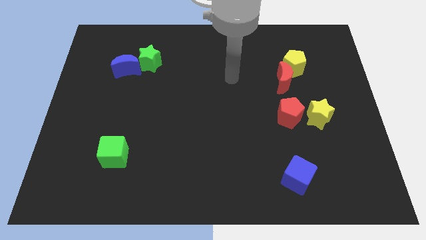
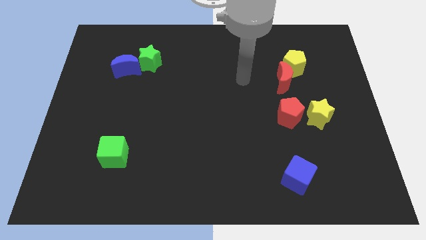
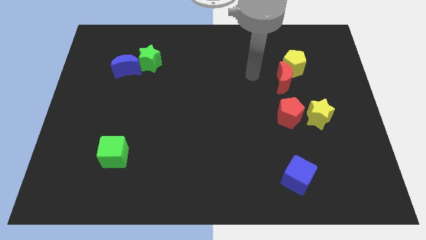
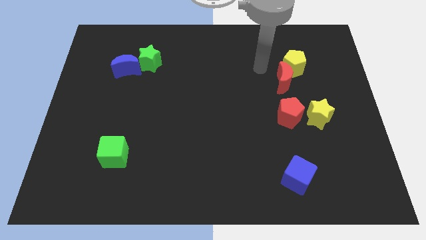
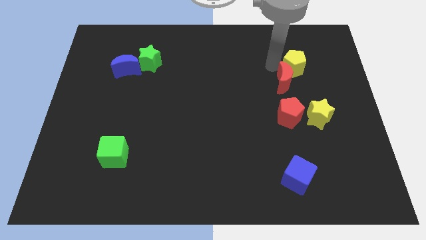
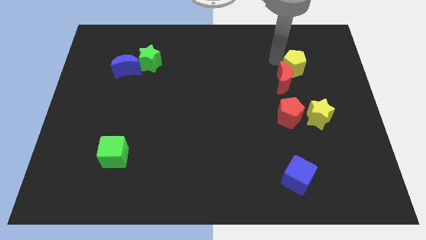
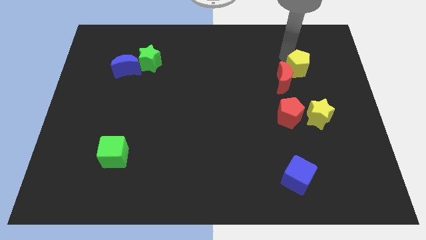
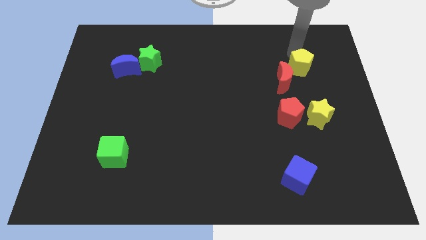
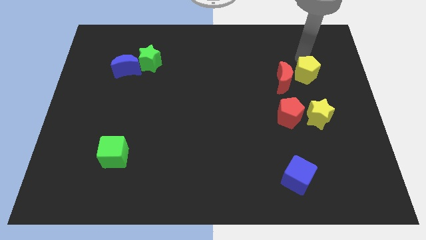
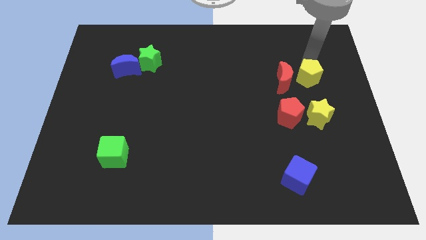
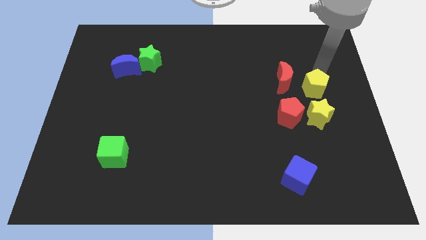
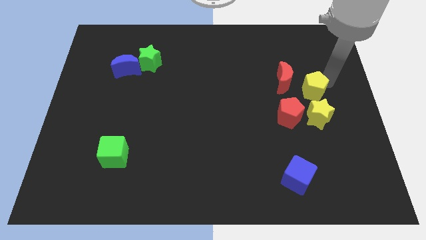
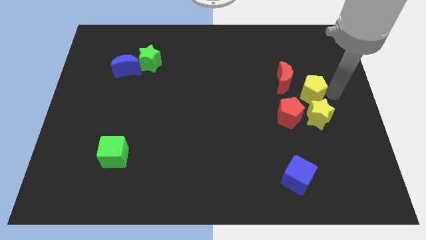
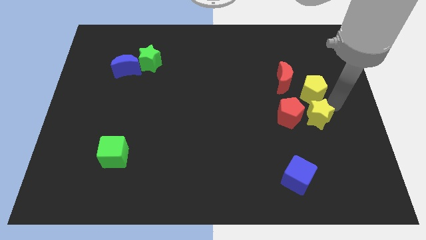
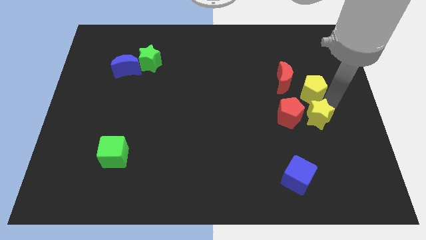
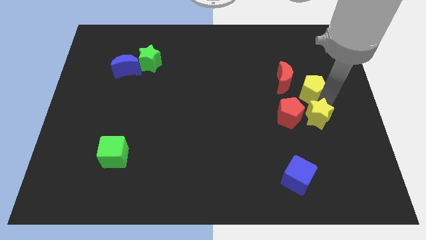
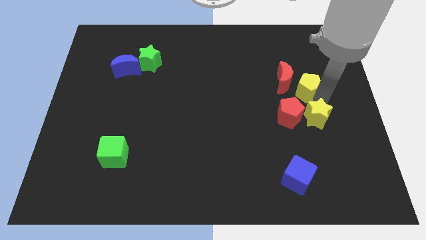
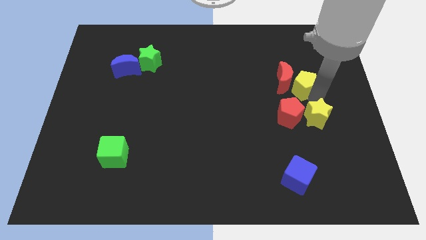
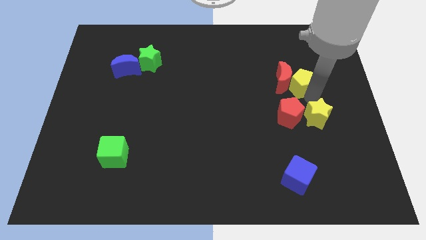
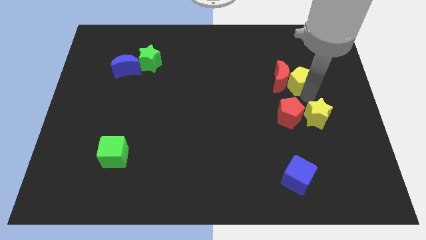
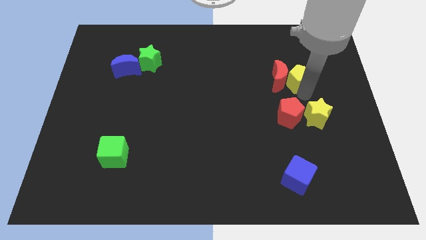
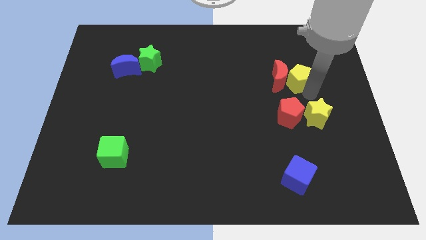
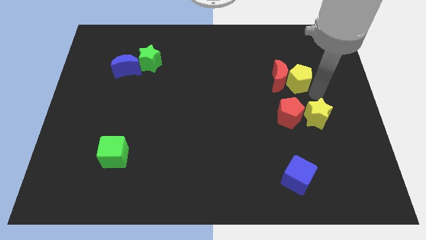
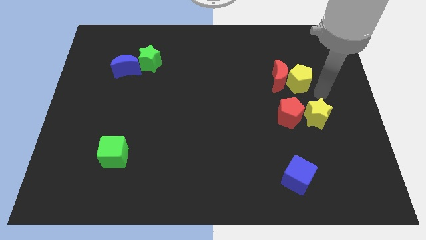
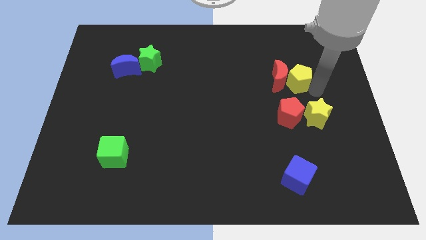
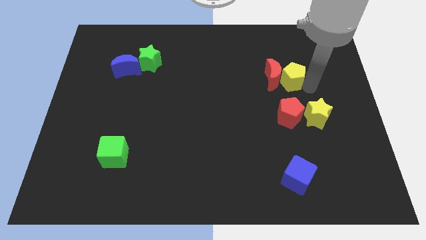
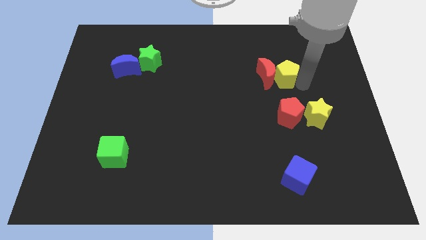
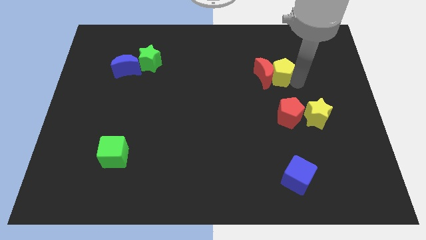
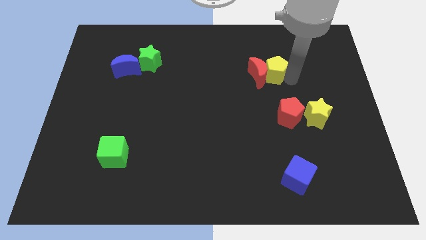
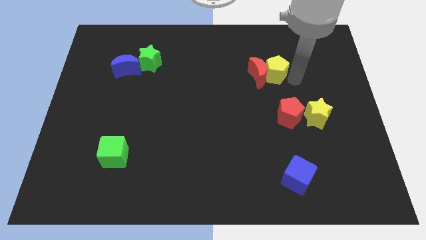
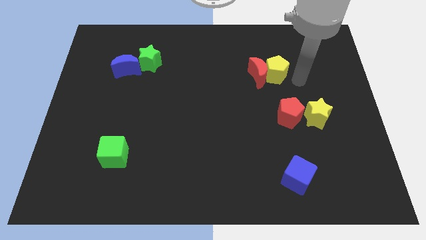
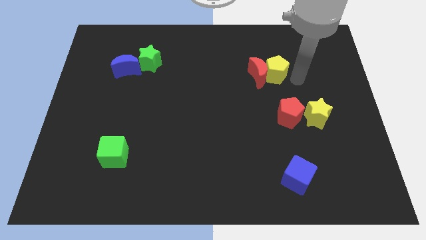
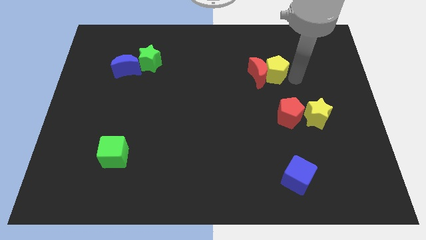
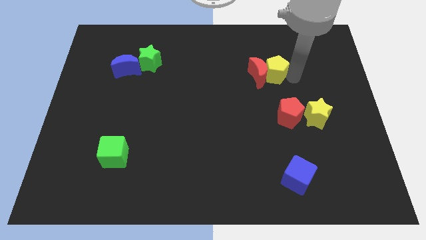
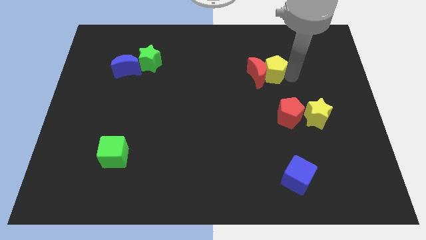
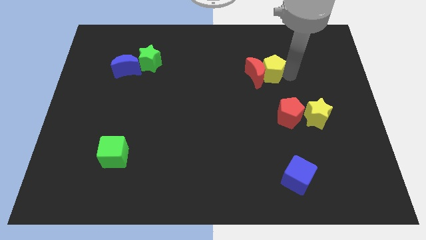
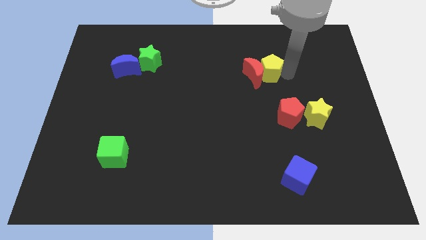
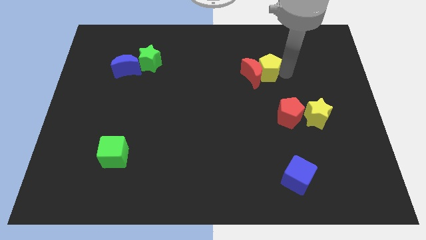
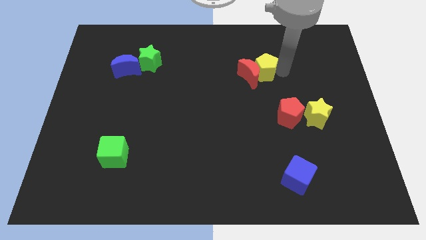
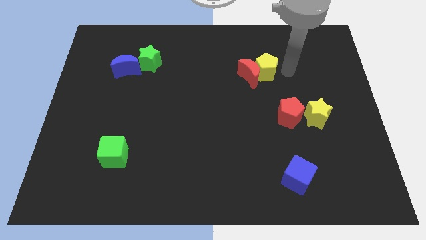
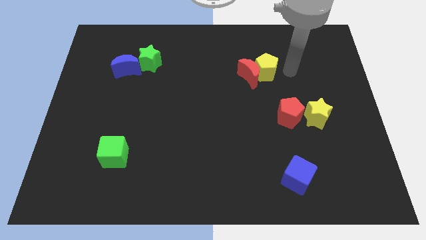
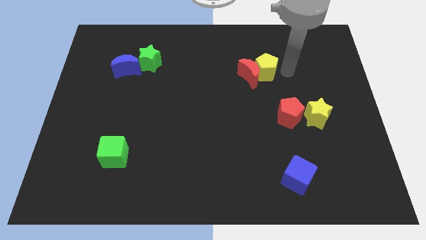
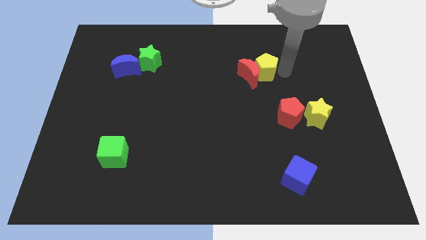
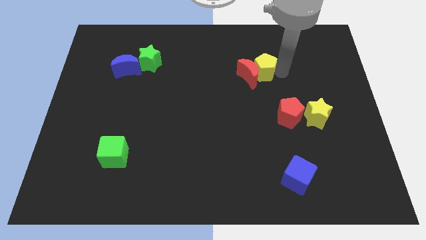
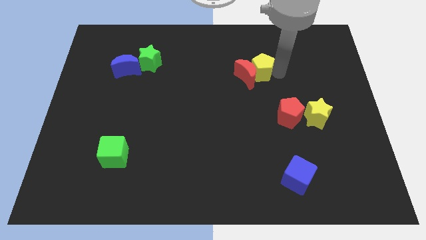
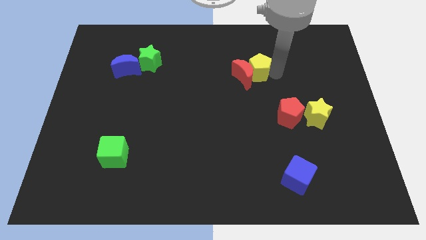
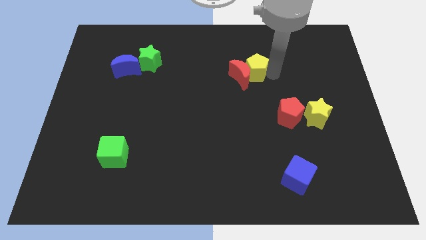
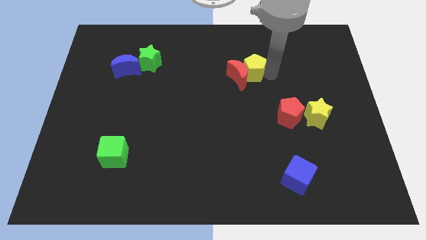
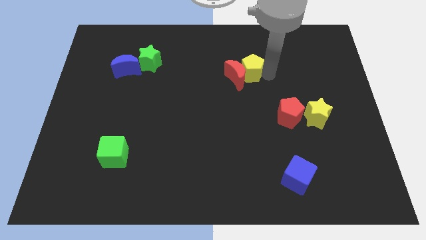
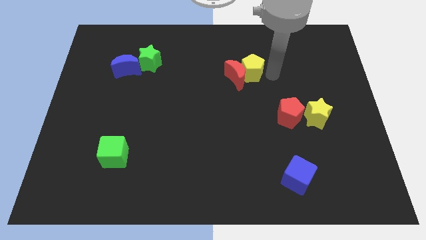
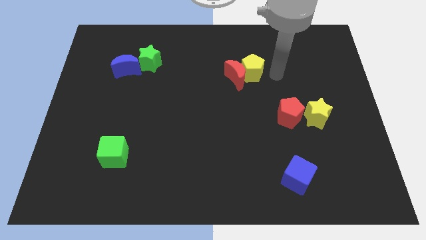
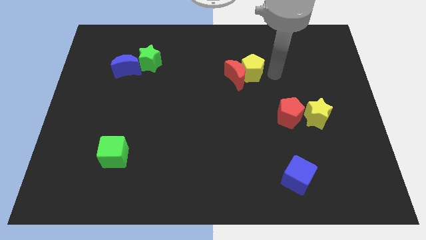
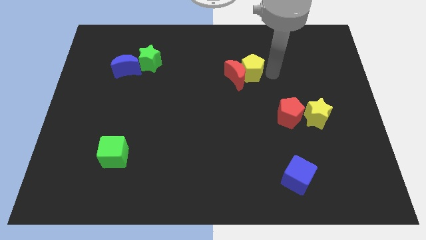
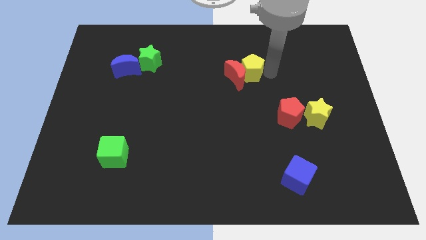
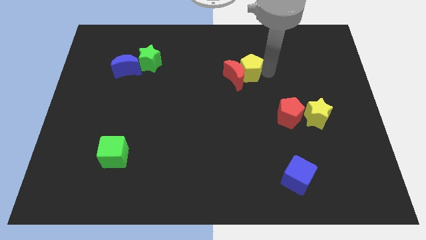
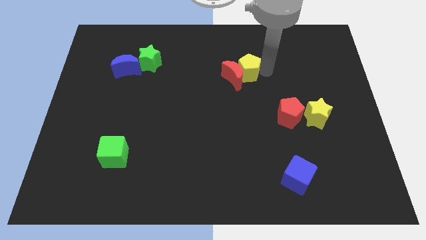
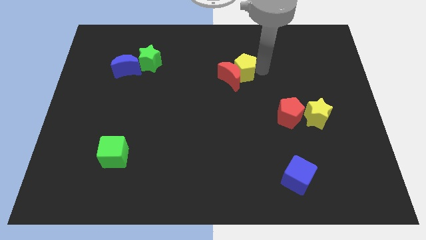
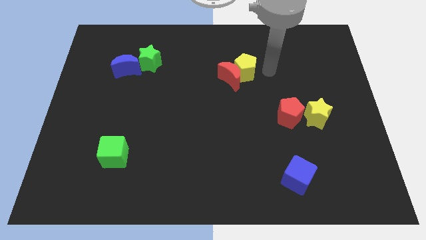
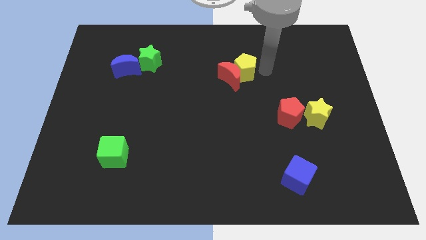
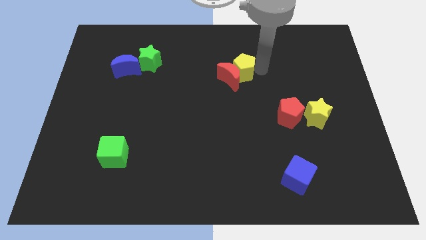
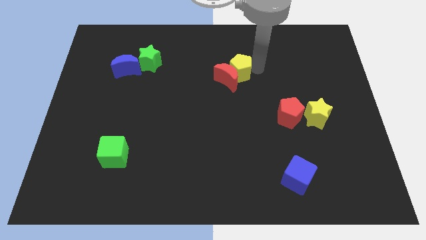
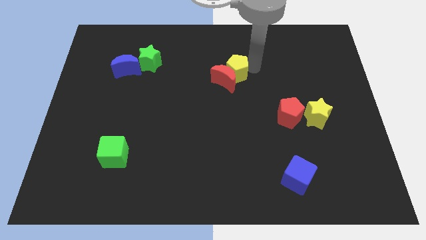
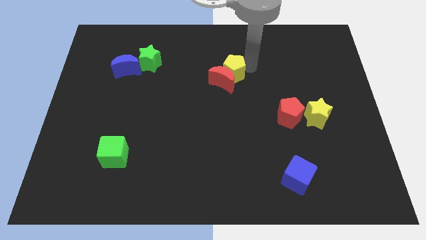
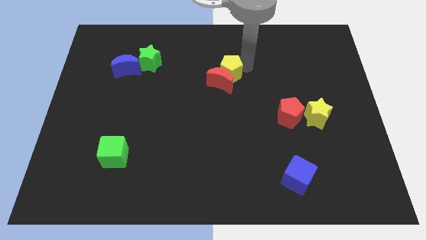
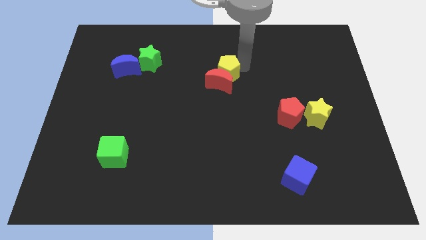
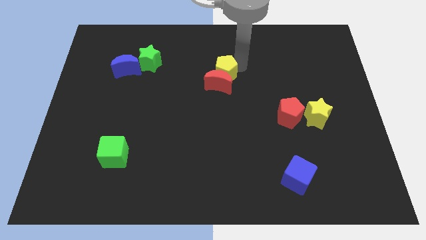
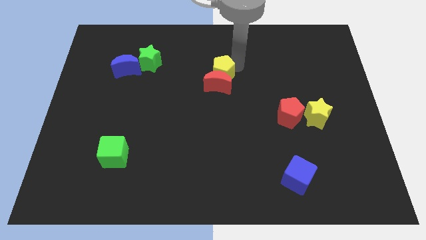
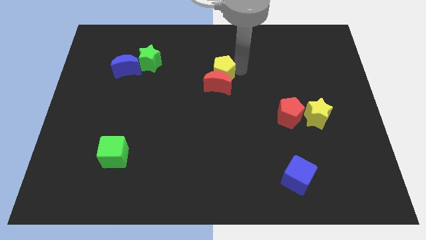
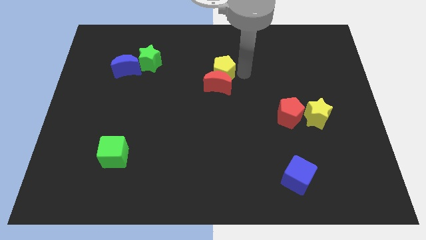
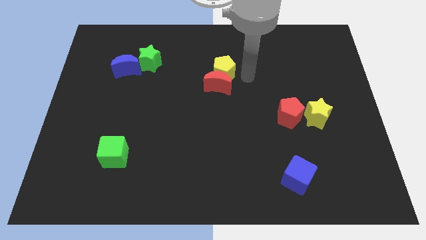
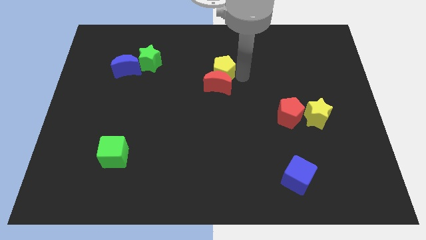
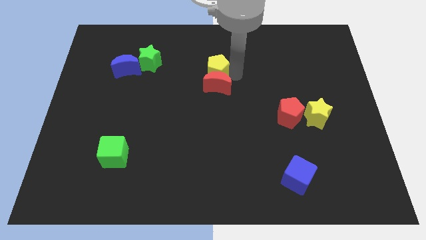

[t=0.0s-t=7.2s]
move the yellow pentagon left

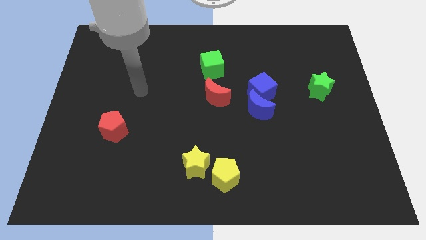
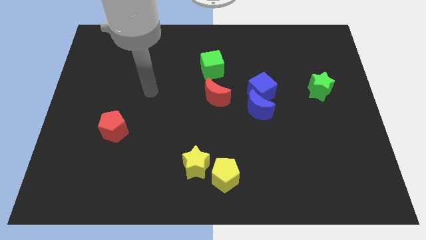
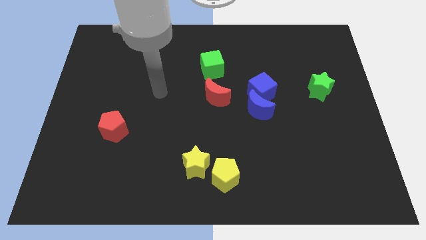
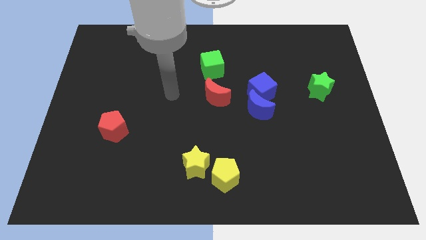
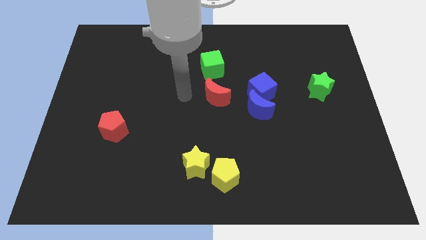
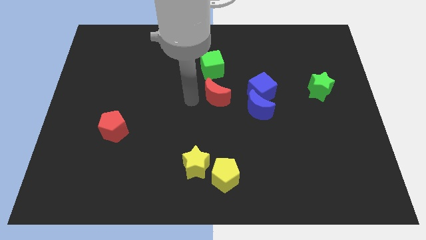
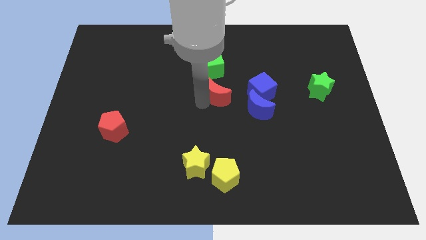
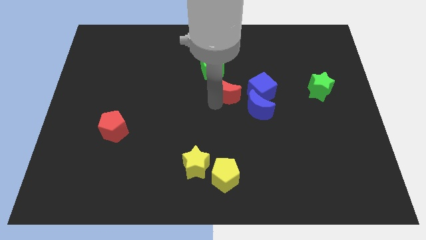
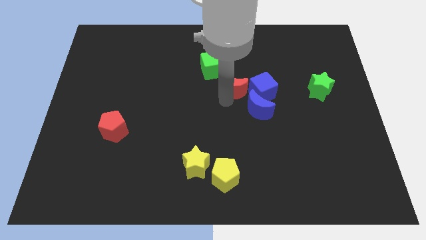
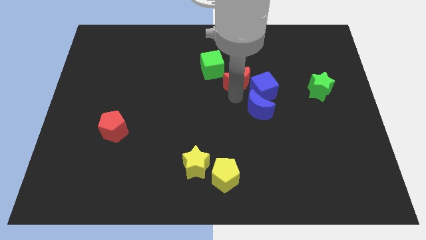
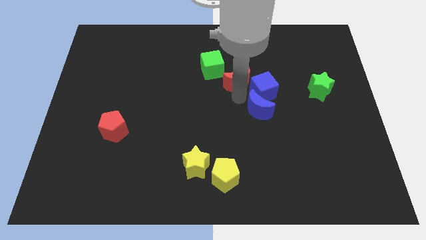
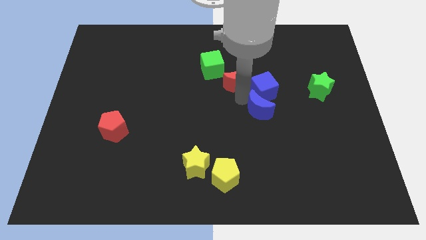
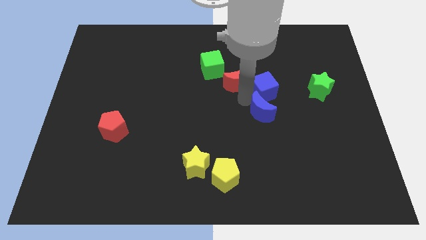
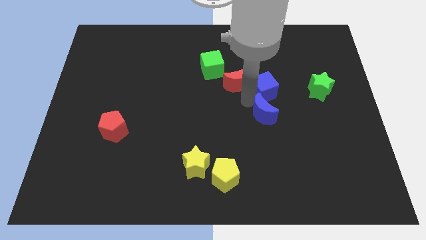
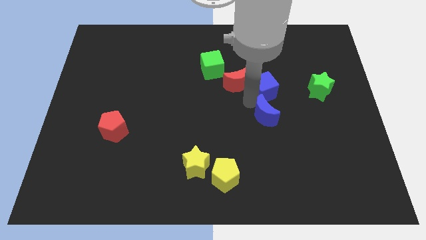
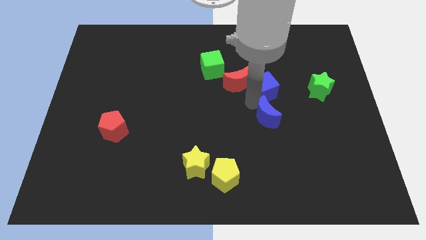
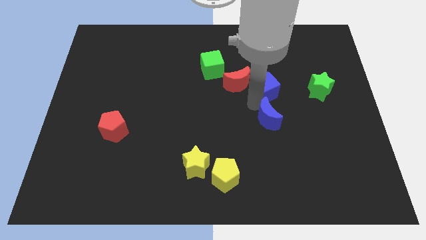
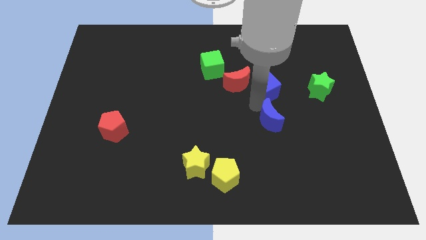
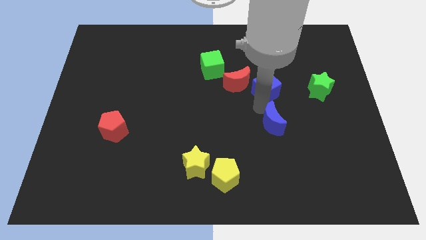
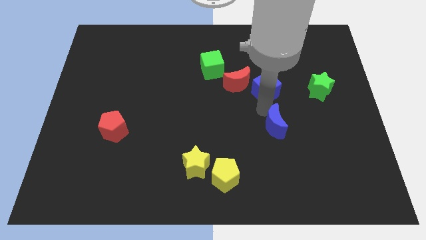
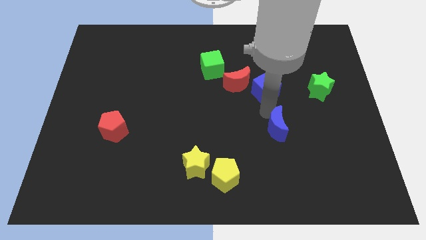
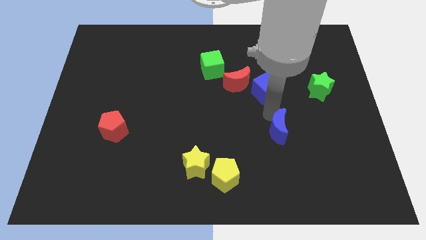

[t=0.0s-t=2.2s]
push the blue moon a bit downwards and to the right diagonally
